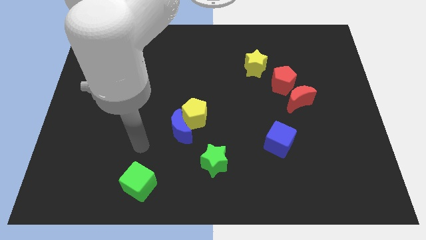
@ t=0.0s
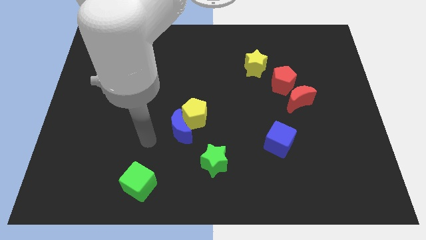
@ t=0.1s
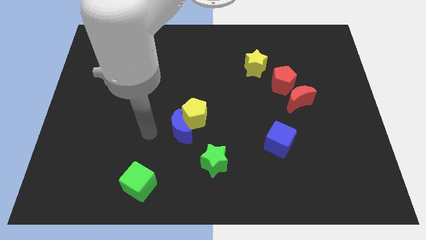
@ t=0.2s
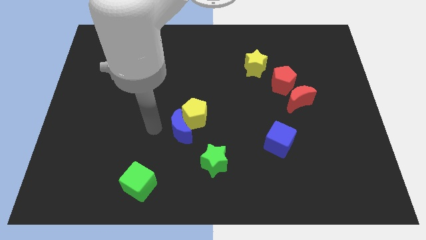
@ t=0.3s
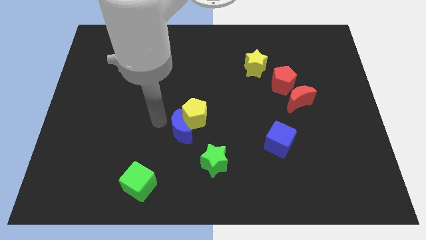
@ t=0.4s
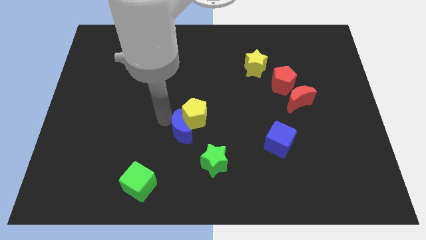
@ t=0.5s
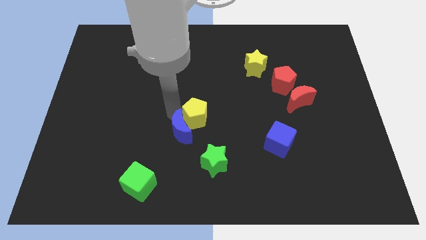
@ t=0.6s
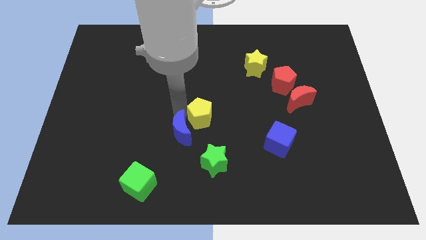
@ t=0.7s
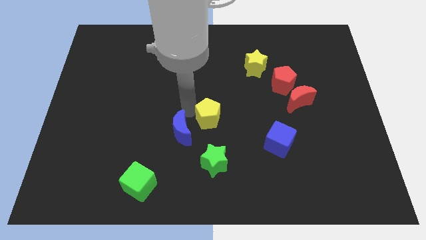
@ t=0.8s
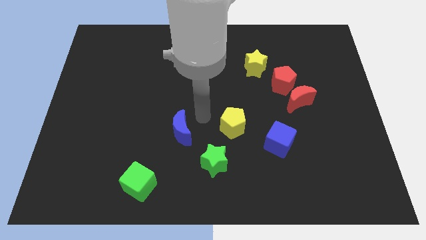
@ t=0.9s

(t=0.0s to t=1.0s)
move the blue moon away from the yellow pentagon

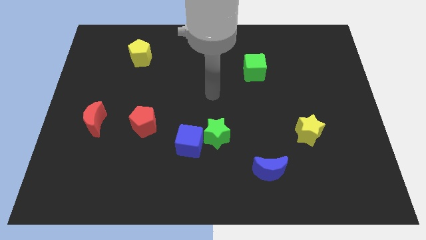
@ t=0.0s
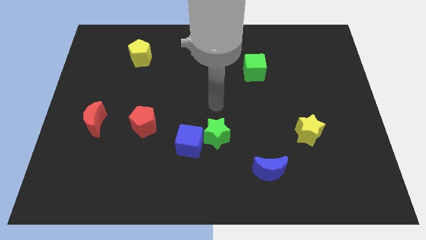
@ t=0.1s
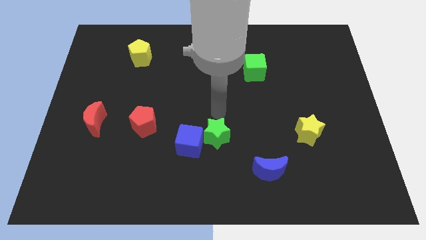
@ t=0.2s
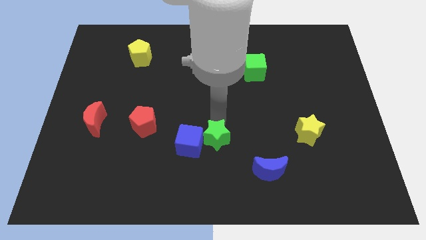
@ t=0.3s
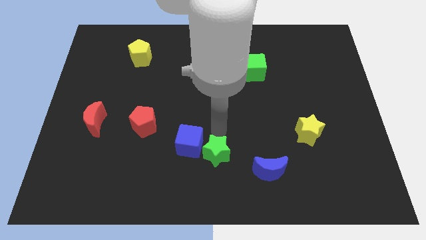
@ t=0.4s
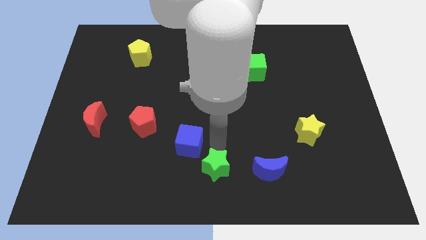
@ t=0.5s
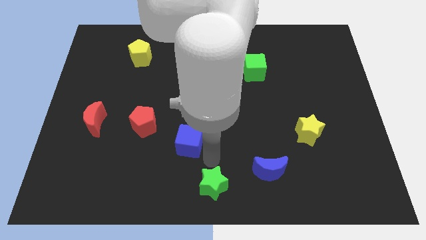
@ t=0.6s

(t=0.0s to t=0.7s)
move the blue cube away from the green star

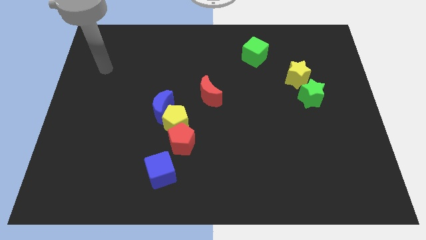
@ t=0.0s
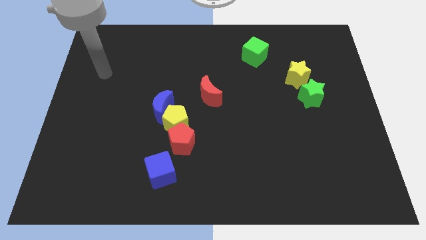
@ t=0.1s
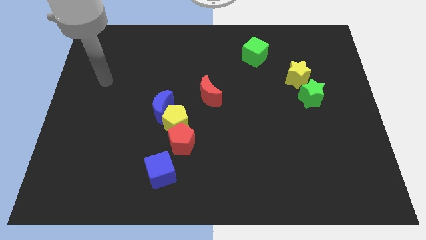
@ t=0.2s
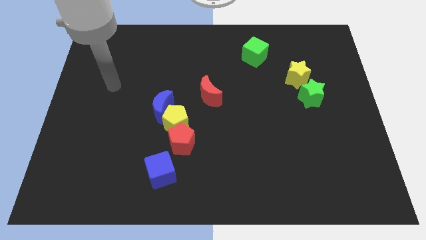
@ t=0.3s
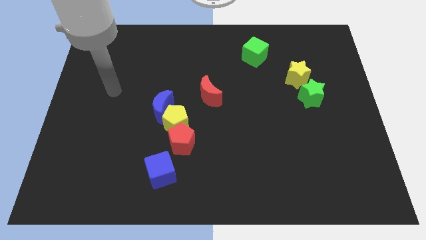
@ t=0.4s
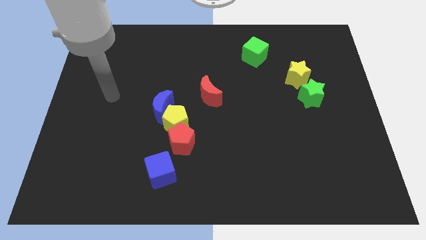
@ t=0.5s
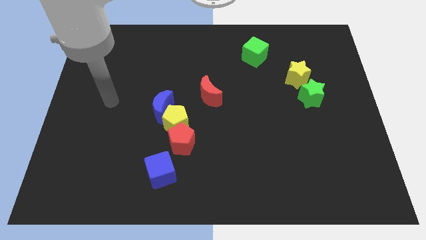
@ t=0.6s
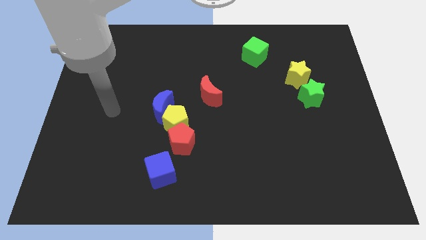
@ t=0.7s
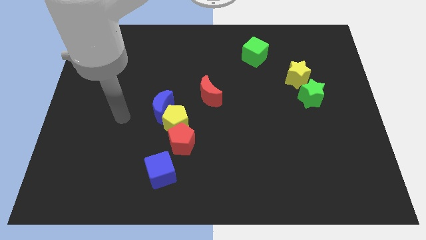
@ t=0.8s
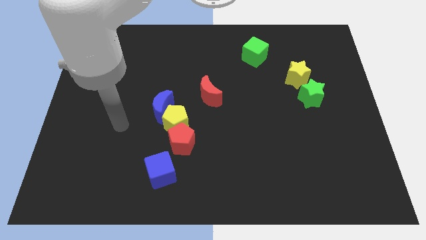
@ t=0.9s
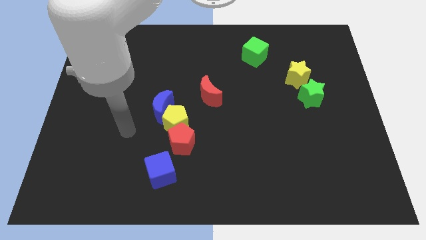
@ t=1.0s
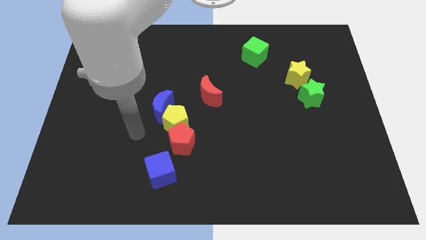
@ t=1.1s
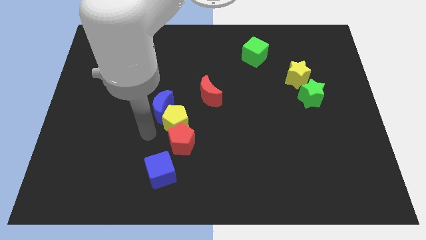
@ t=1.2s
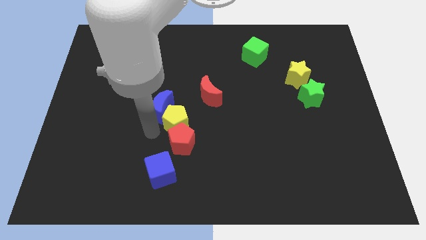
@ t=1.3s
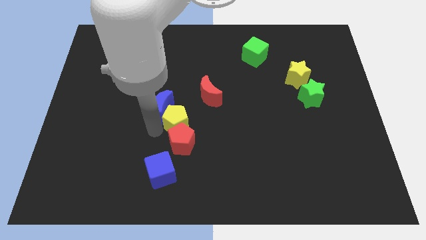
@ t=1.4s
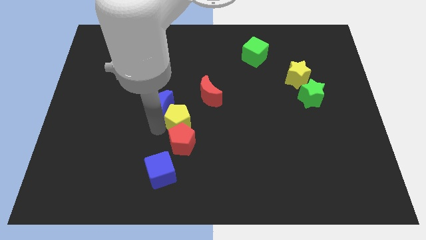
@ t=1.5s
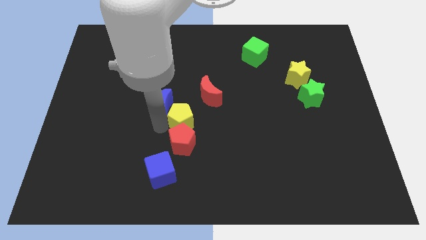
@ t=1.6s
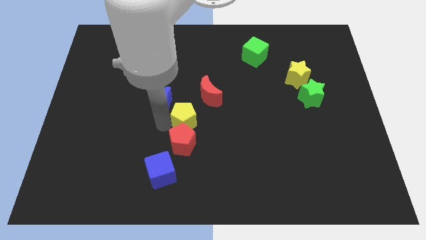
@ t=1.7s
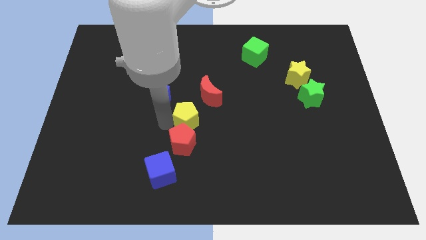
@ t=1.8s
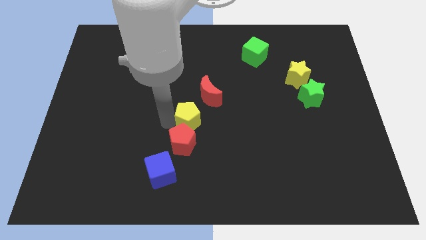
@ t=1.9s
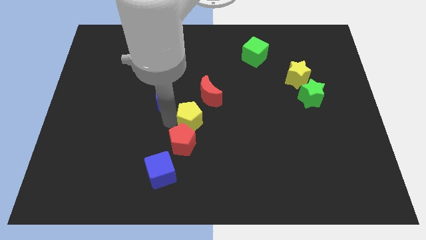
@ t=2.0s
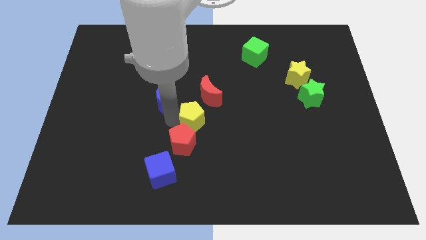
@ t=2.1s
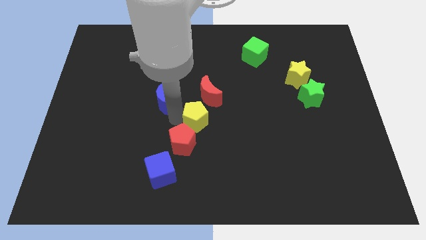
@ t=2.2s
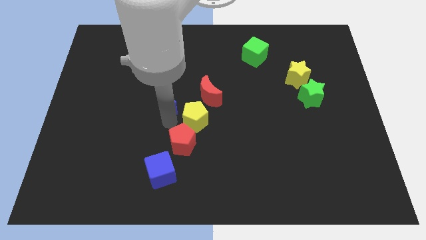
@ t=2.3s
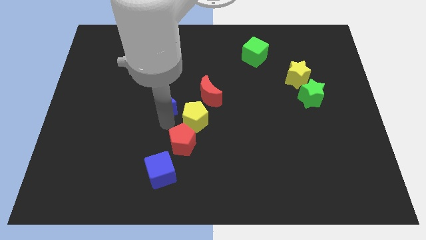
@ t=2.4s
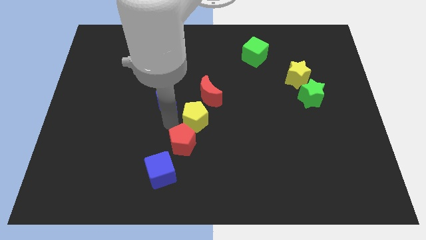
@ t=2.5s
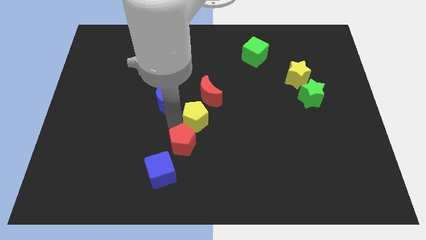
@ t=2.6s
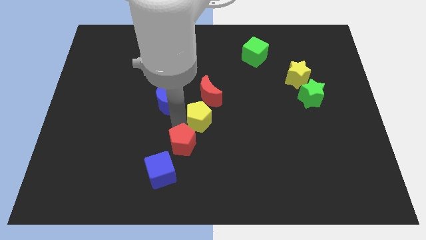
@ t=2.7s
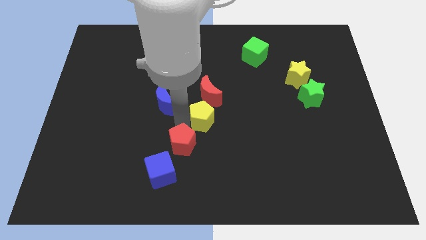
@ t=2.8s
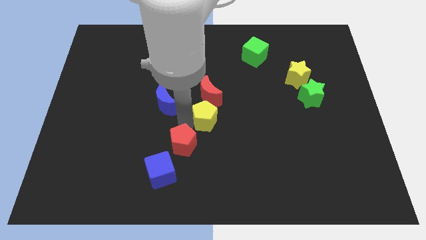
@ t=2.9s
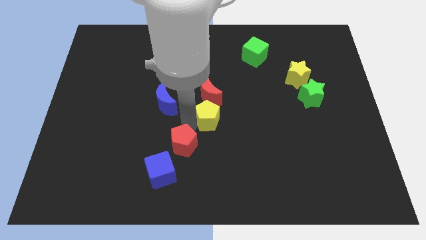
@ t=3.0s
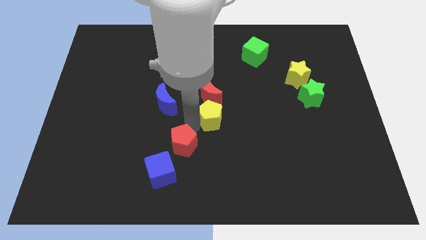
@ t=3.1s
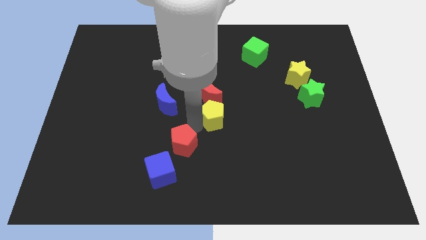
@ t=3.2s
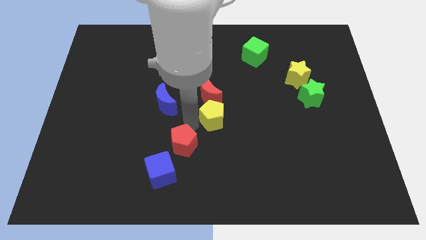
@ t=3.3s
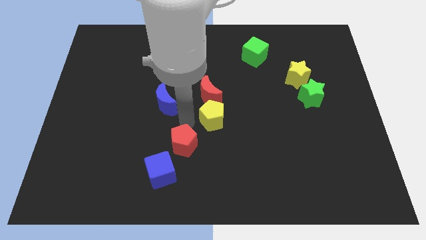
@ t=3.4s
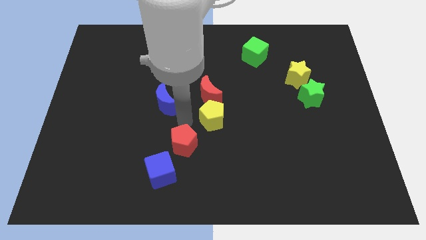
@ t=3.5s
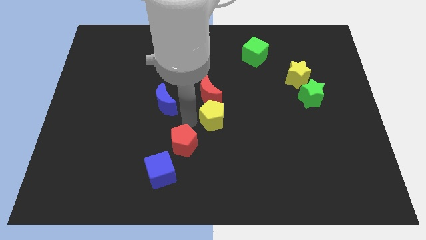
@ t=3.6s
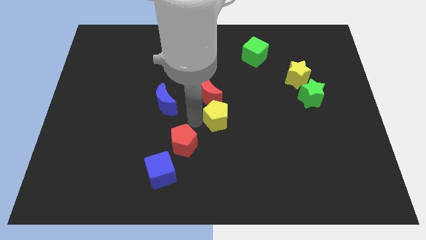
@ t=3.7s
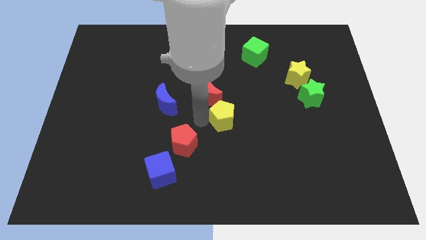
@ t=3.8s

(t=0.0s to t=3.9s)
pull the yellow pentagon apart from the red pentagon and blue moon

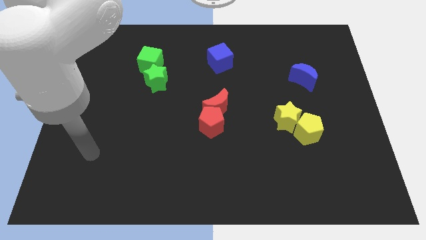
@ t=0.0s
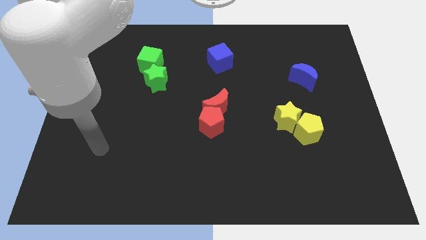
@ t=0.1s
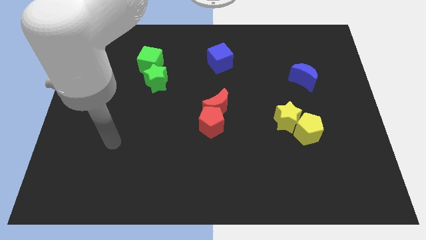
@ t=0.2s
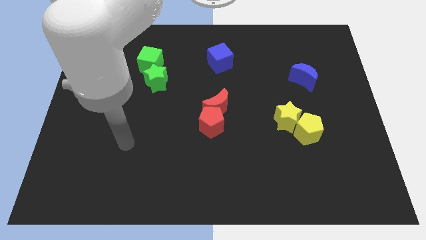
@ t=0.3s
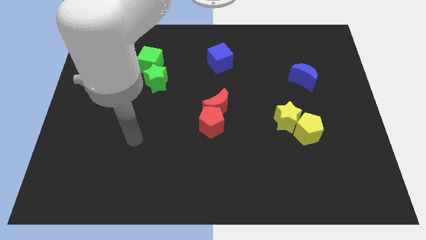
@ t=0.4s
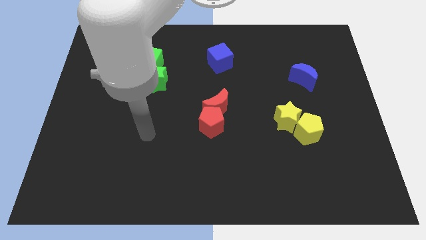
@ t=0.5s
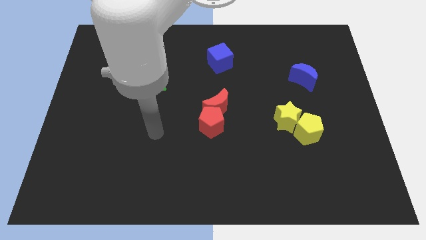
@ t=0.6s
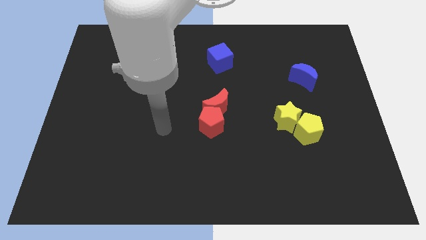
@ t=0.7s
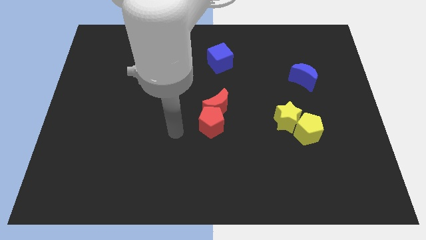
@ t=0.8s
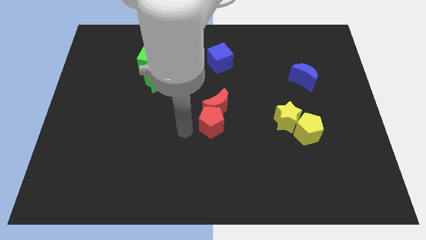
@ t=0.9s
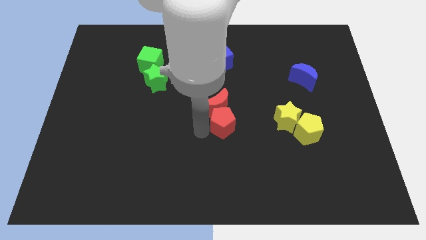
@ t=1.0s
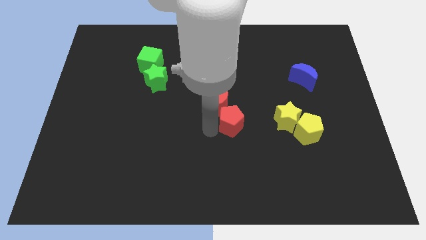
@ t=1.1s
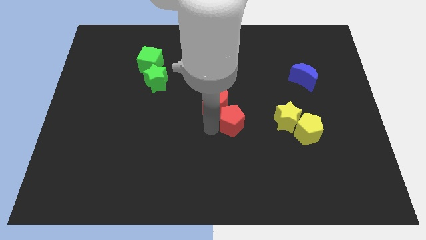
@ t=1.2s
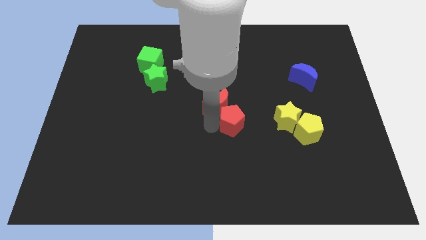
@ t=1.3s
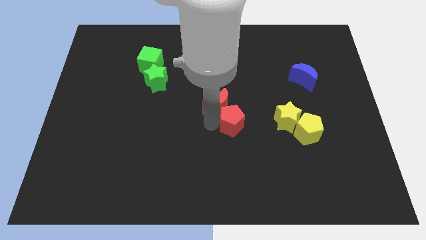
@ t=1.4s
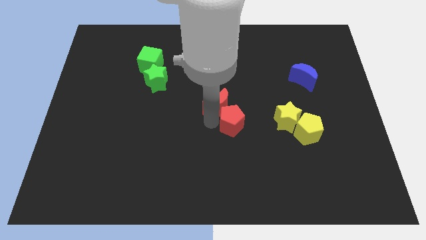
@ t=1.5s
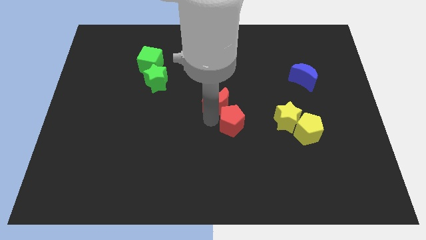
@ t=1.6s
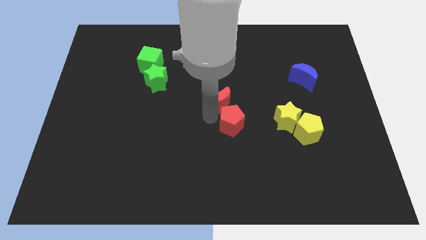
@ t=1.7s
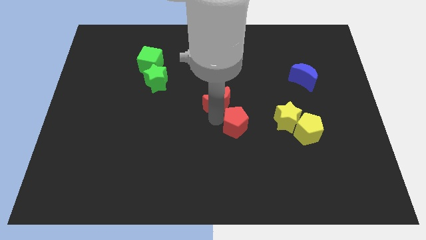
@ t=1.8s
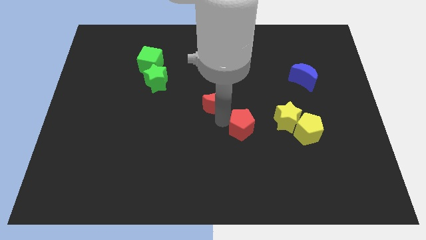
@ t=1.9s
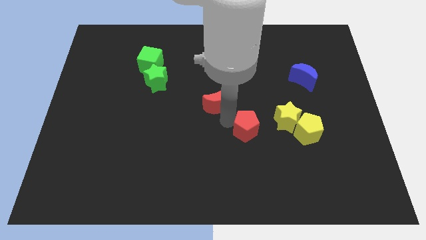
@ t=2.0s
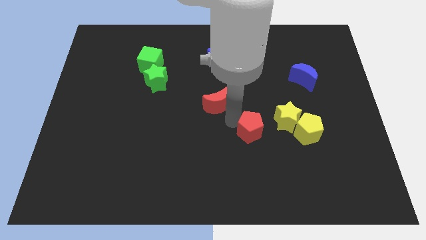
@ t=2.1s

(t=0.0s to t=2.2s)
move the red moon away from the red pentagon

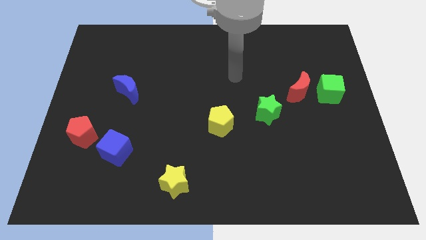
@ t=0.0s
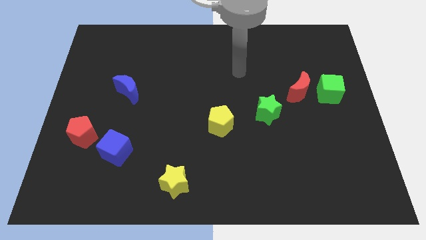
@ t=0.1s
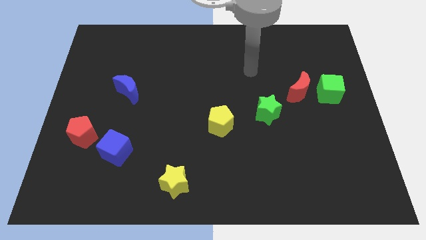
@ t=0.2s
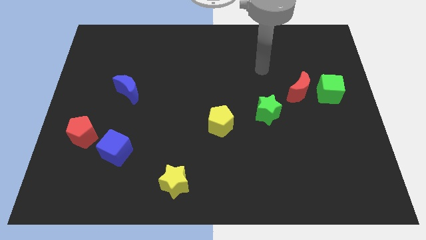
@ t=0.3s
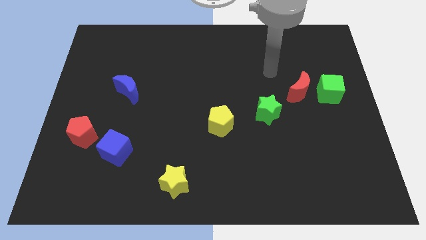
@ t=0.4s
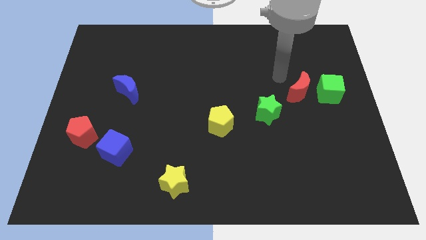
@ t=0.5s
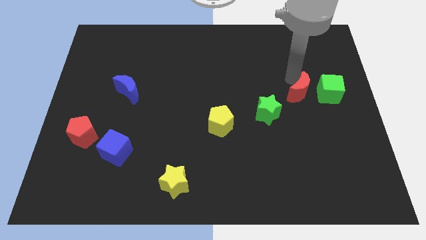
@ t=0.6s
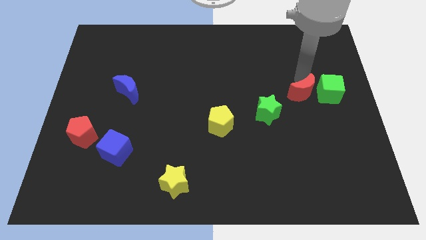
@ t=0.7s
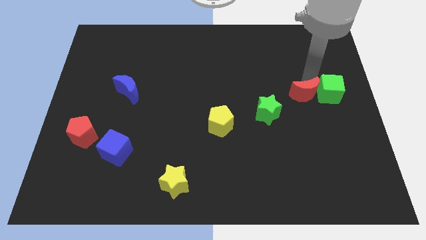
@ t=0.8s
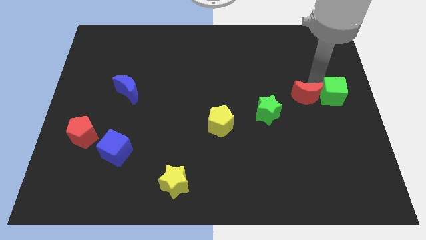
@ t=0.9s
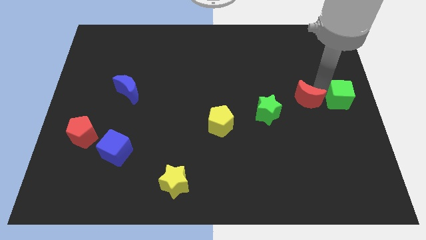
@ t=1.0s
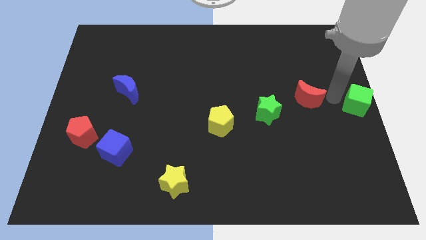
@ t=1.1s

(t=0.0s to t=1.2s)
pull the red moon apart from the green cube

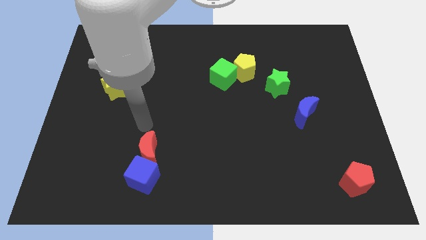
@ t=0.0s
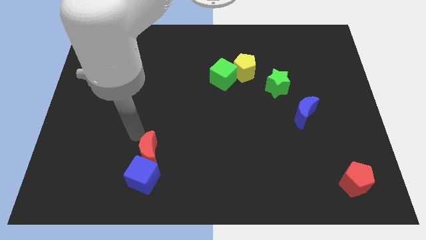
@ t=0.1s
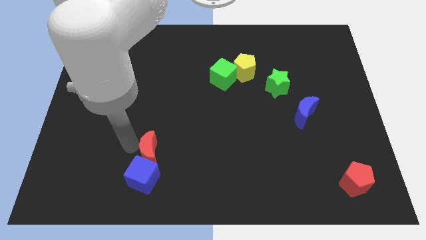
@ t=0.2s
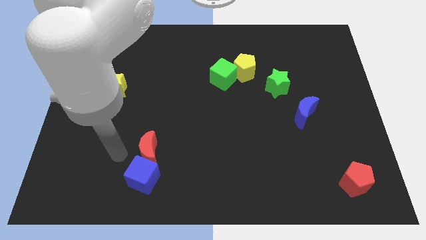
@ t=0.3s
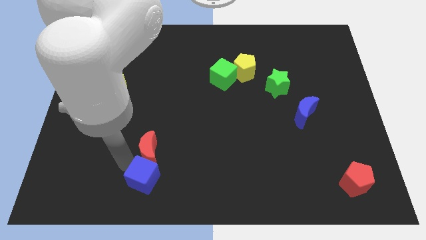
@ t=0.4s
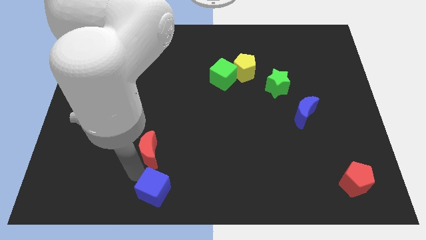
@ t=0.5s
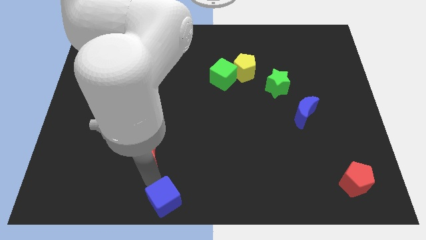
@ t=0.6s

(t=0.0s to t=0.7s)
move the red moon away from the blue cube
